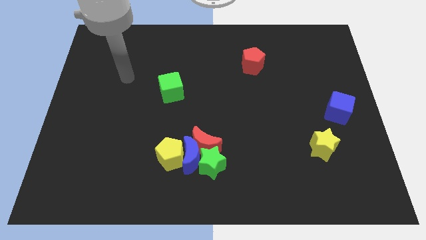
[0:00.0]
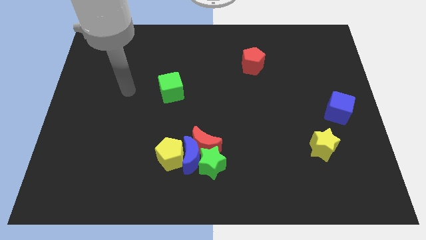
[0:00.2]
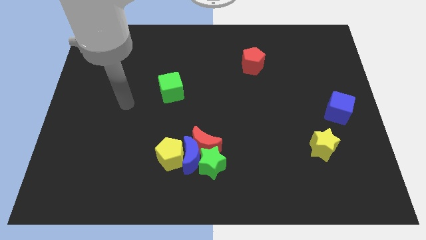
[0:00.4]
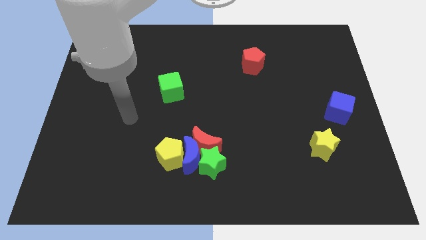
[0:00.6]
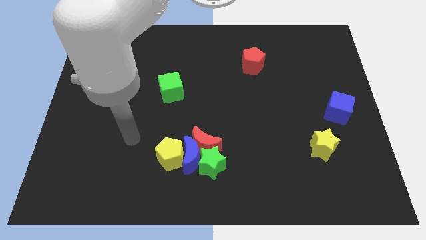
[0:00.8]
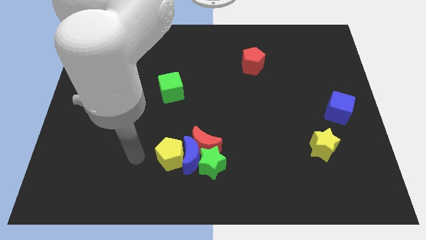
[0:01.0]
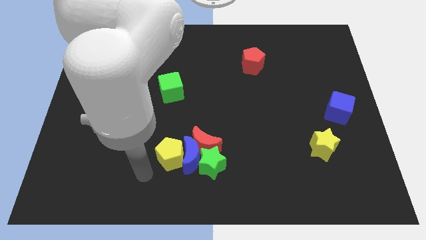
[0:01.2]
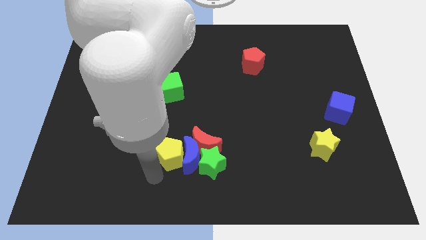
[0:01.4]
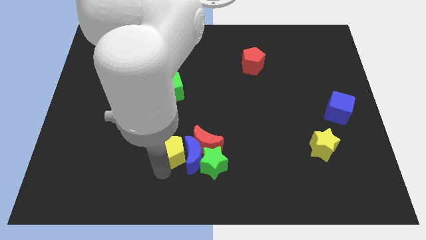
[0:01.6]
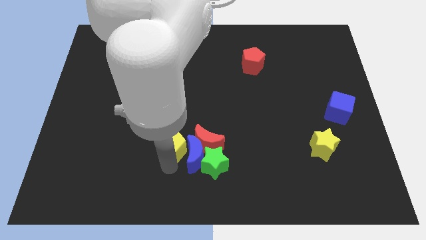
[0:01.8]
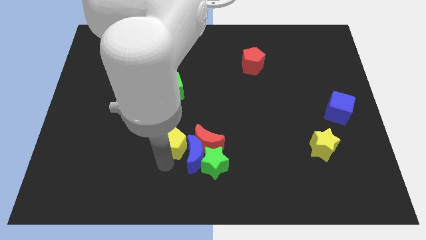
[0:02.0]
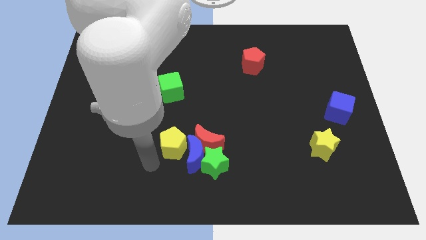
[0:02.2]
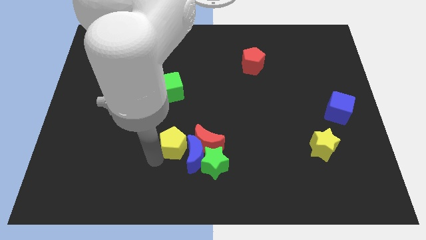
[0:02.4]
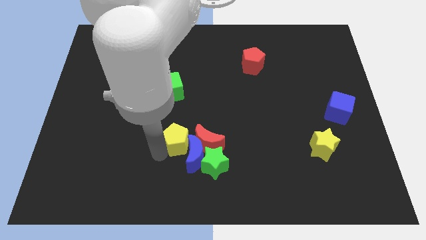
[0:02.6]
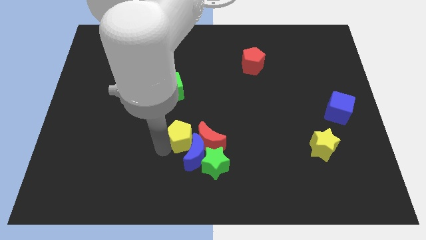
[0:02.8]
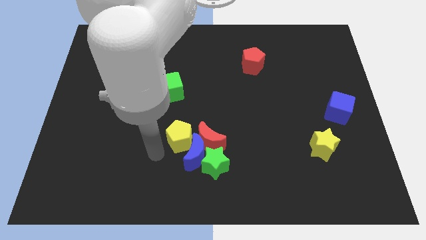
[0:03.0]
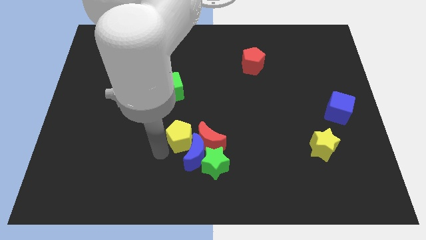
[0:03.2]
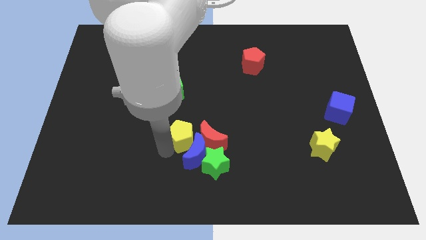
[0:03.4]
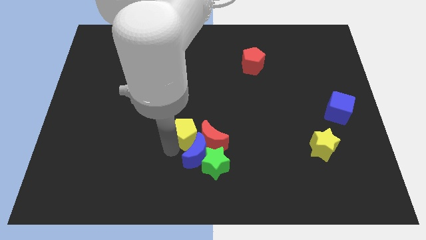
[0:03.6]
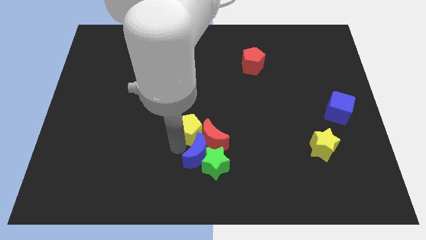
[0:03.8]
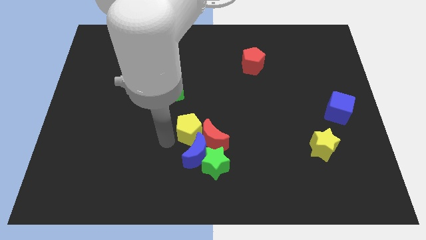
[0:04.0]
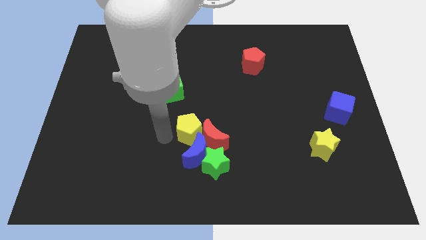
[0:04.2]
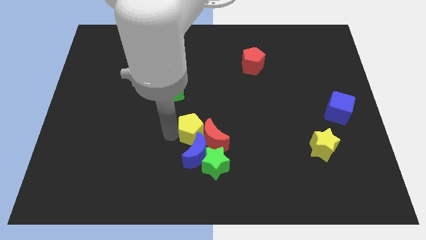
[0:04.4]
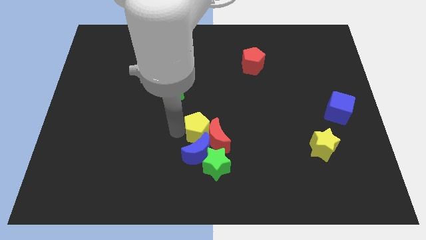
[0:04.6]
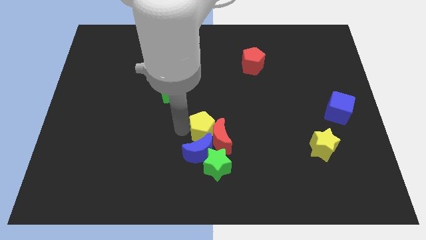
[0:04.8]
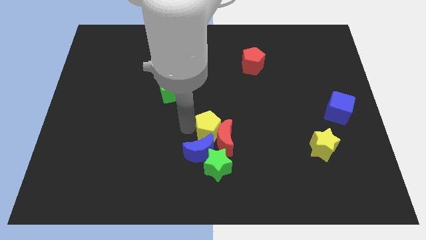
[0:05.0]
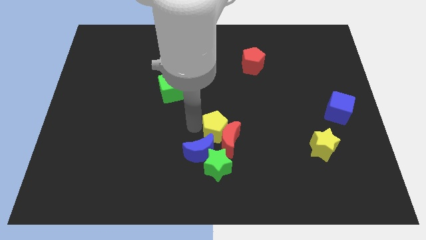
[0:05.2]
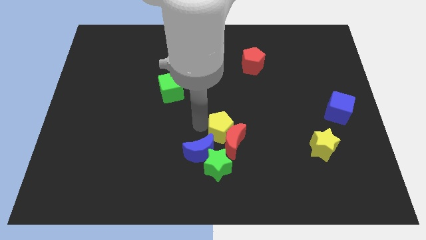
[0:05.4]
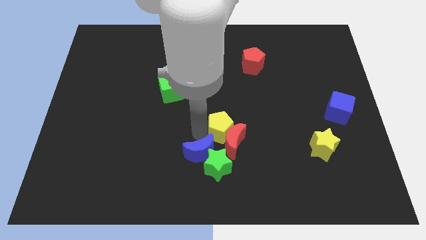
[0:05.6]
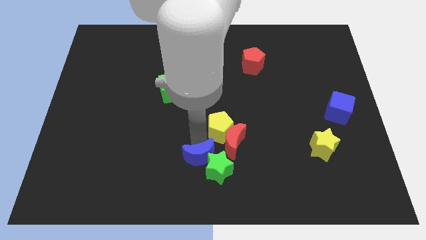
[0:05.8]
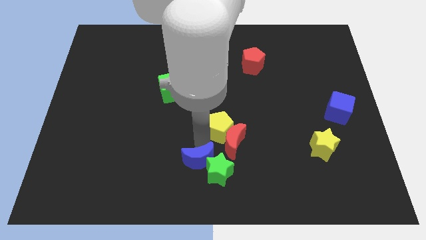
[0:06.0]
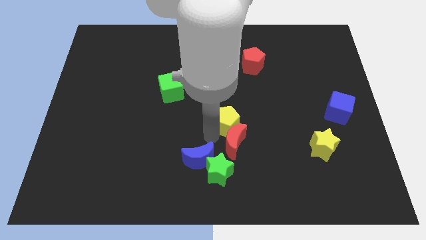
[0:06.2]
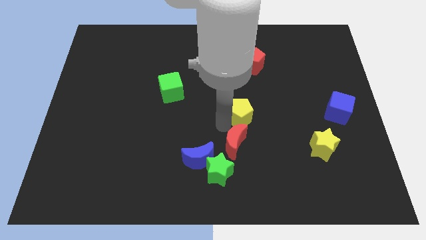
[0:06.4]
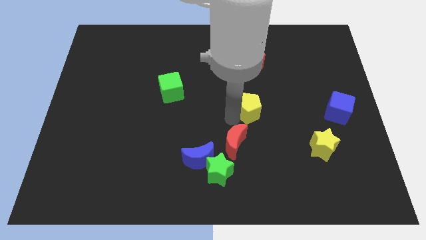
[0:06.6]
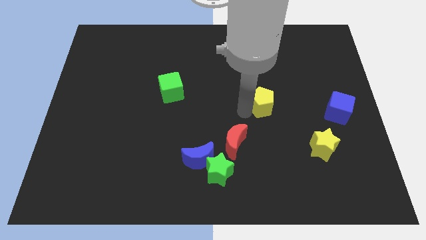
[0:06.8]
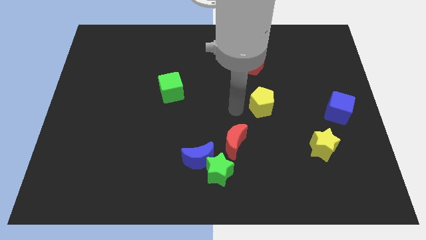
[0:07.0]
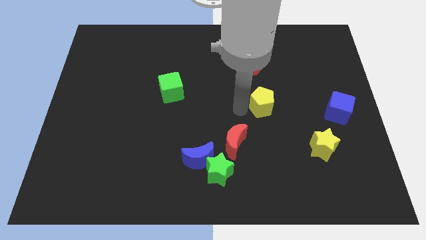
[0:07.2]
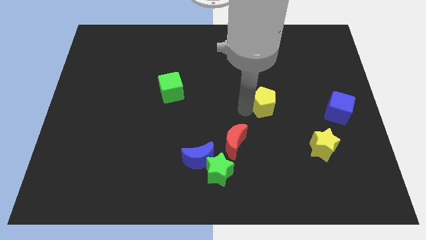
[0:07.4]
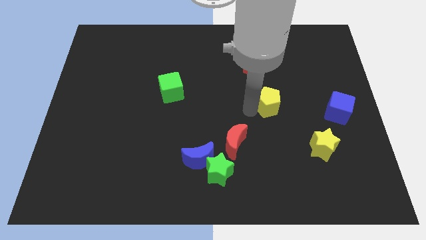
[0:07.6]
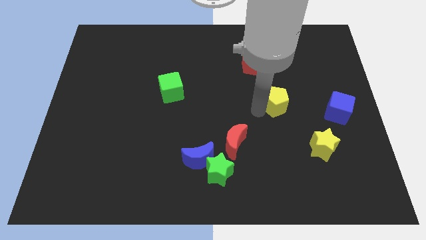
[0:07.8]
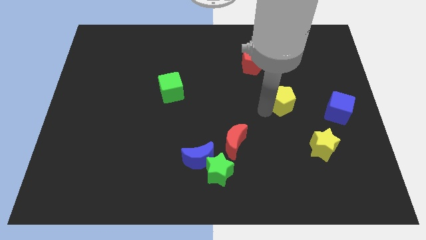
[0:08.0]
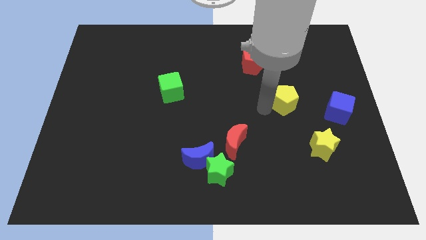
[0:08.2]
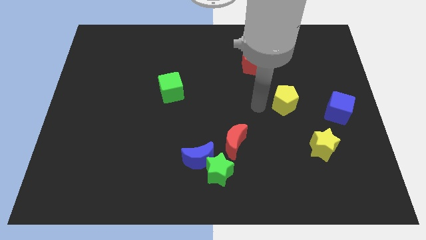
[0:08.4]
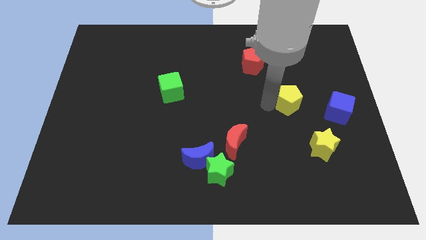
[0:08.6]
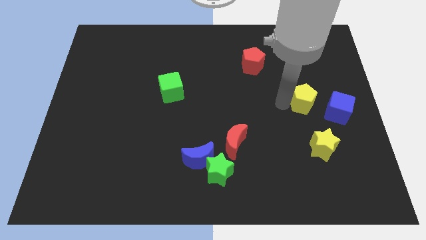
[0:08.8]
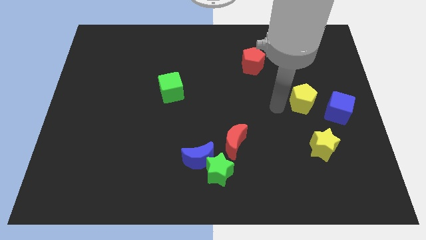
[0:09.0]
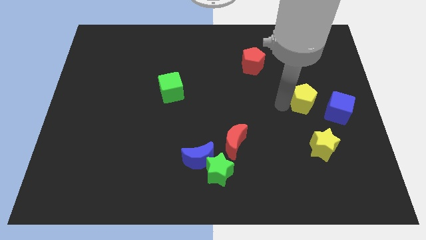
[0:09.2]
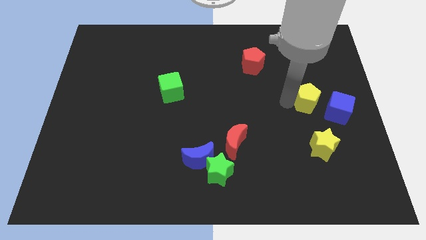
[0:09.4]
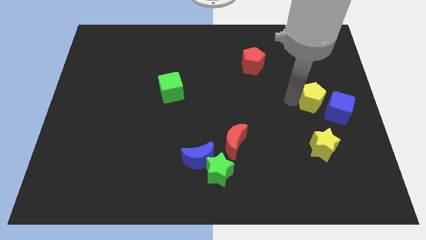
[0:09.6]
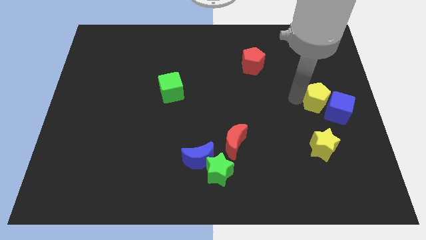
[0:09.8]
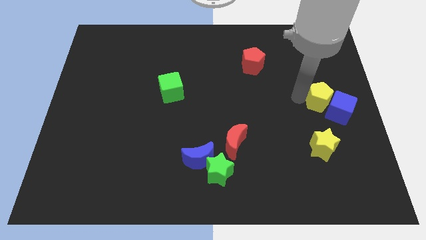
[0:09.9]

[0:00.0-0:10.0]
slide the yellow pentagon to the center right

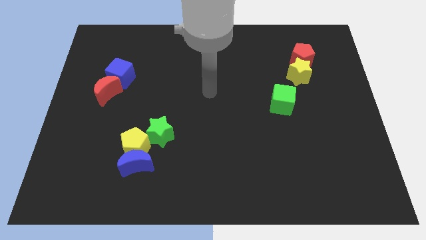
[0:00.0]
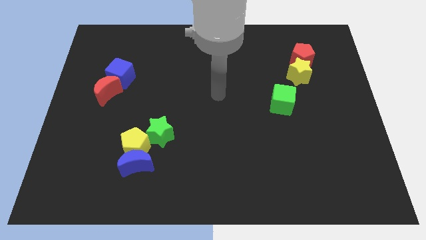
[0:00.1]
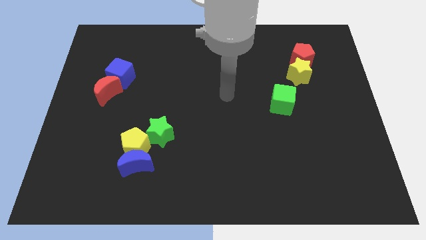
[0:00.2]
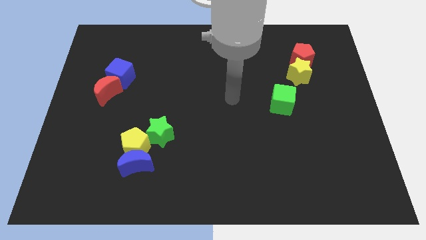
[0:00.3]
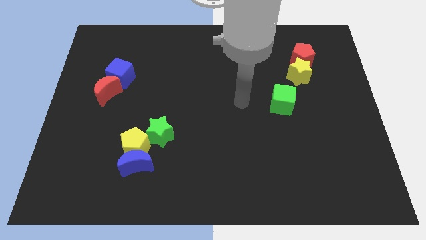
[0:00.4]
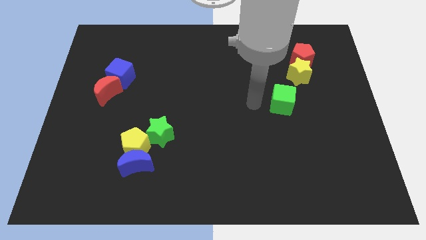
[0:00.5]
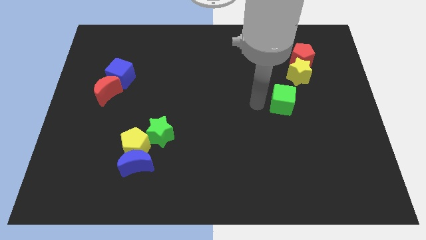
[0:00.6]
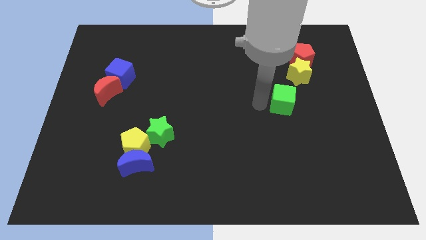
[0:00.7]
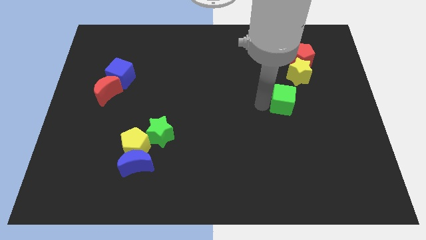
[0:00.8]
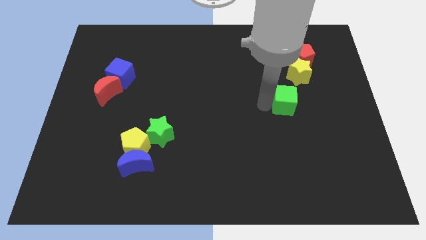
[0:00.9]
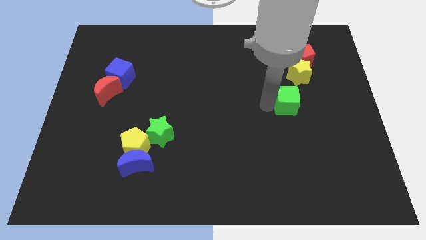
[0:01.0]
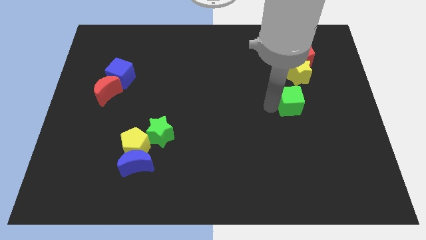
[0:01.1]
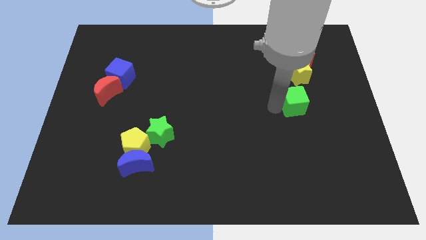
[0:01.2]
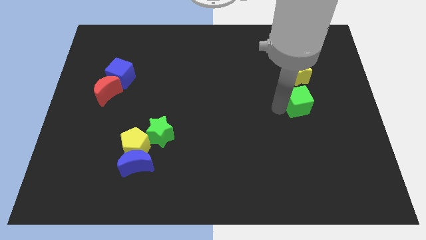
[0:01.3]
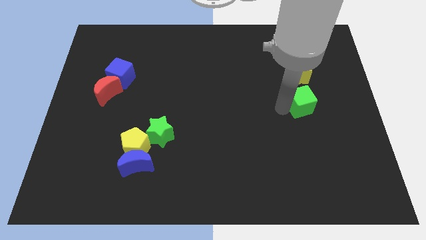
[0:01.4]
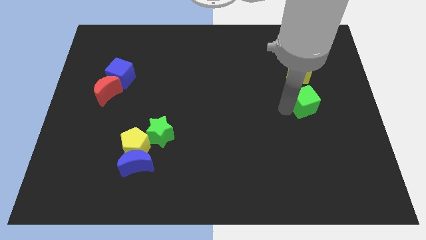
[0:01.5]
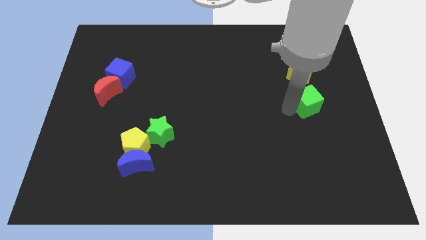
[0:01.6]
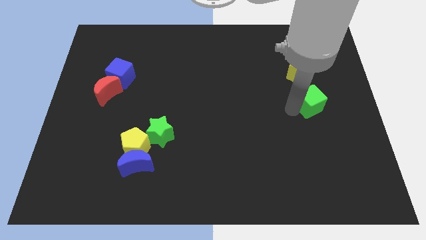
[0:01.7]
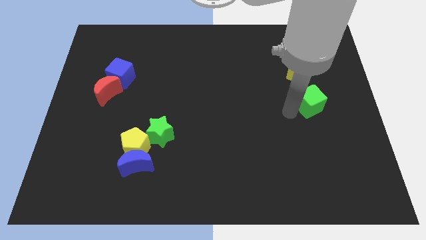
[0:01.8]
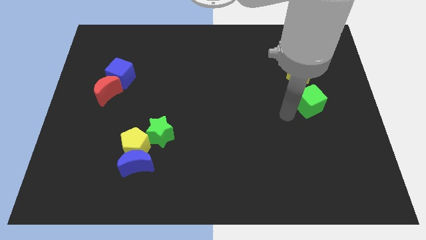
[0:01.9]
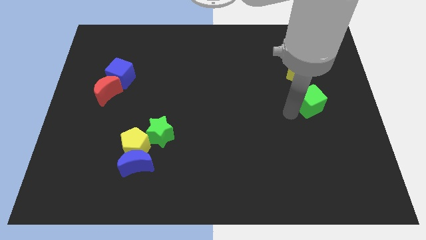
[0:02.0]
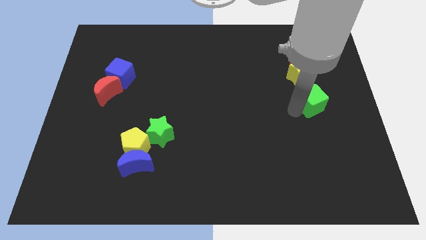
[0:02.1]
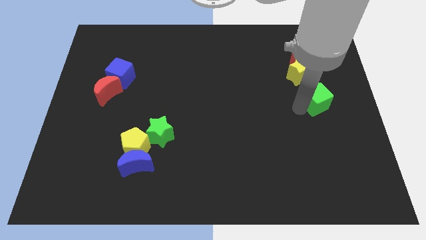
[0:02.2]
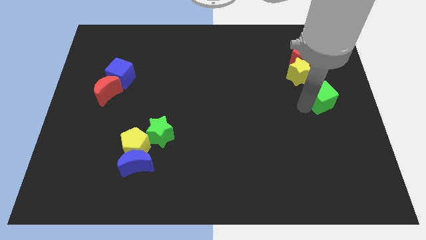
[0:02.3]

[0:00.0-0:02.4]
put the green cube to the right side of the board
